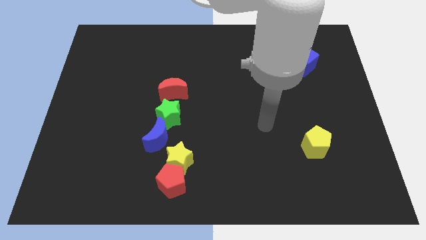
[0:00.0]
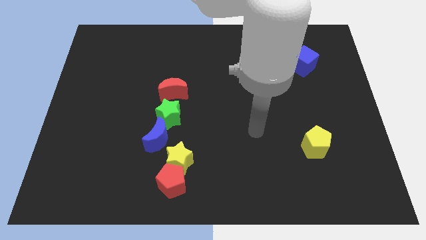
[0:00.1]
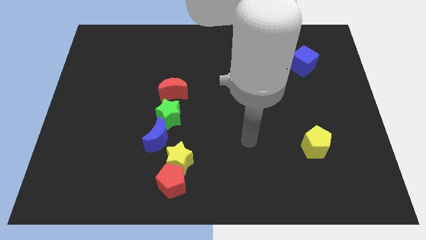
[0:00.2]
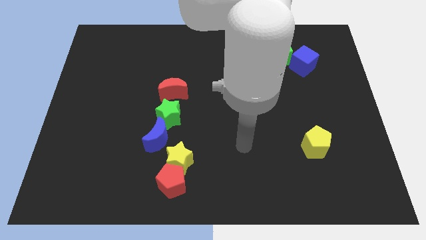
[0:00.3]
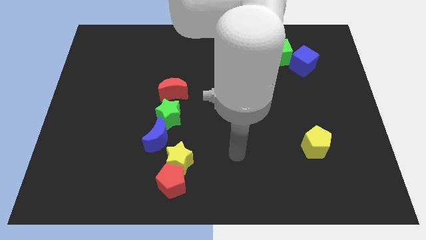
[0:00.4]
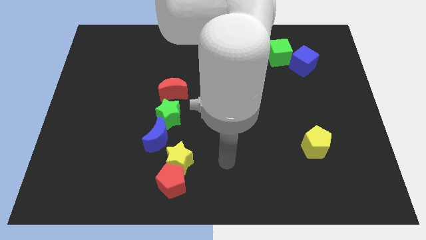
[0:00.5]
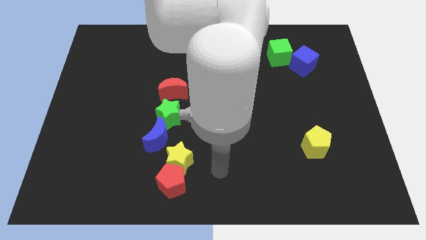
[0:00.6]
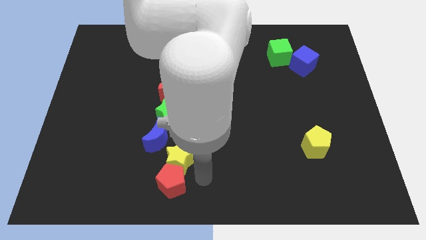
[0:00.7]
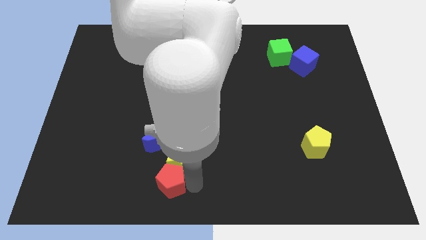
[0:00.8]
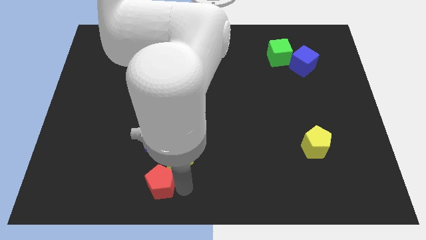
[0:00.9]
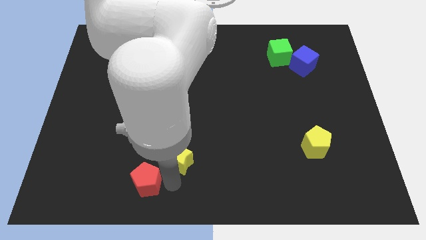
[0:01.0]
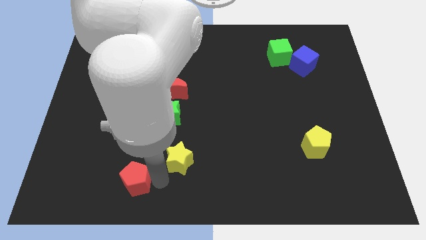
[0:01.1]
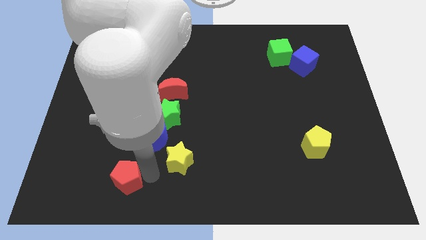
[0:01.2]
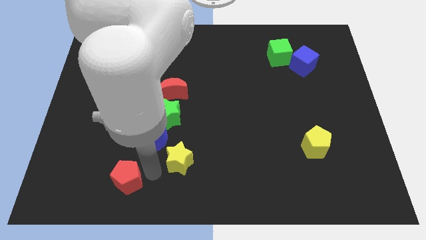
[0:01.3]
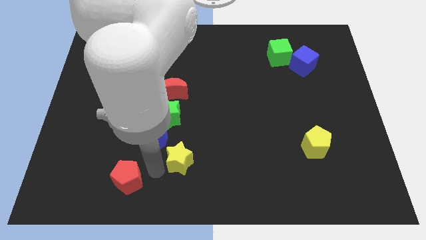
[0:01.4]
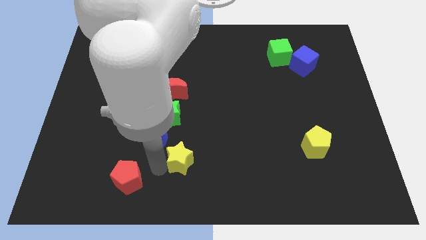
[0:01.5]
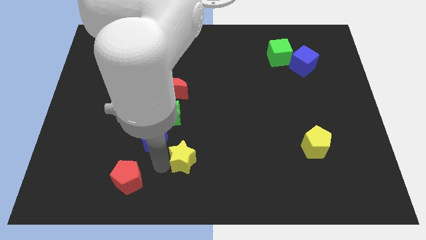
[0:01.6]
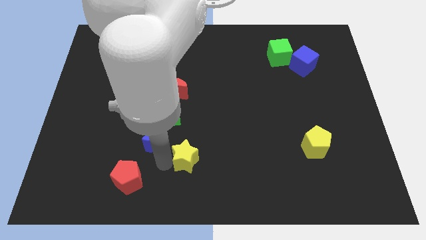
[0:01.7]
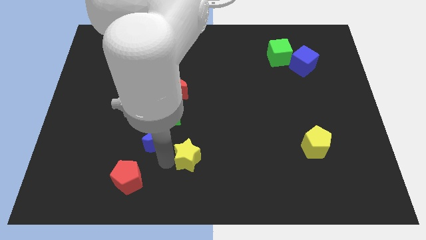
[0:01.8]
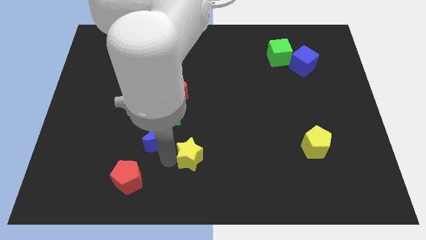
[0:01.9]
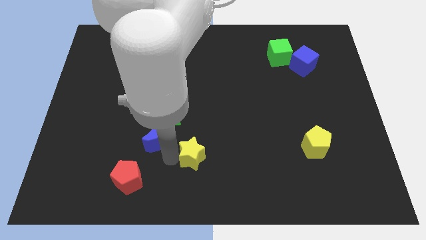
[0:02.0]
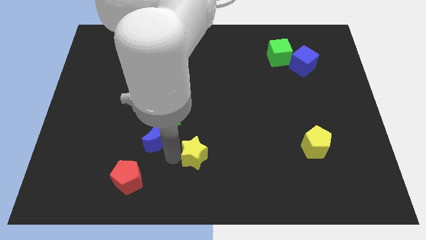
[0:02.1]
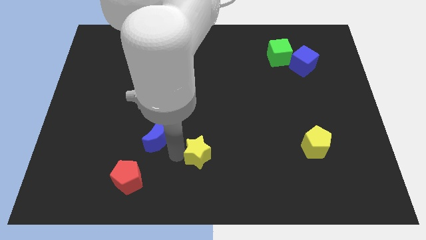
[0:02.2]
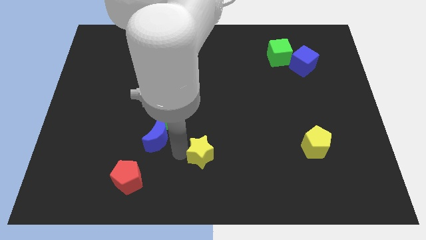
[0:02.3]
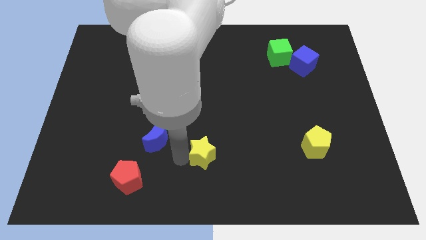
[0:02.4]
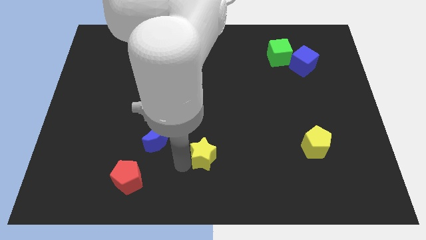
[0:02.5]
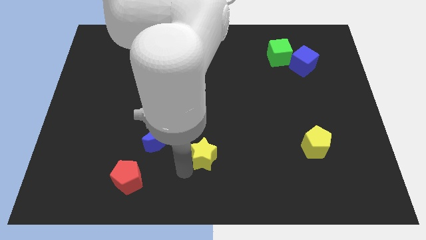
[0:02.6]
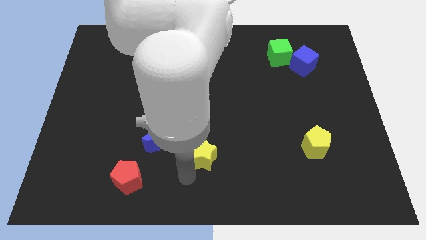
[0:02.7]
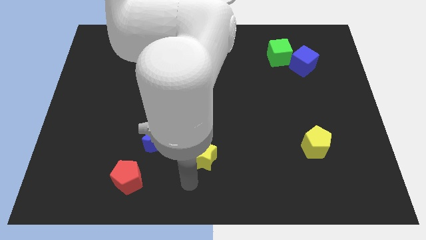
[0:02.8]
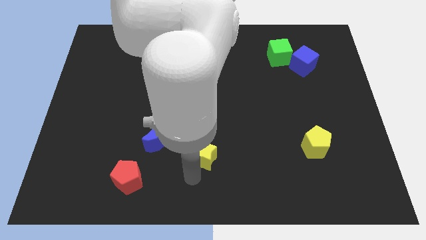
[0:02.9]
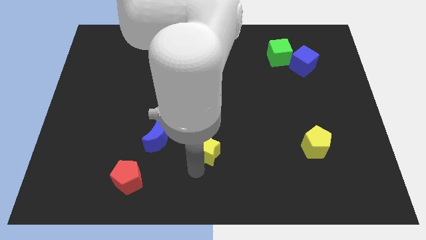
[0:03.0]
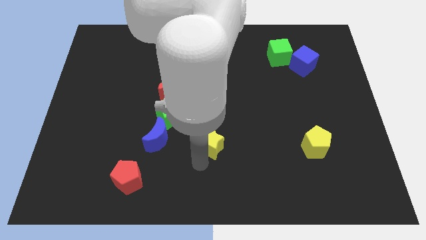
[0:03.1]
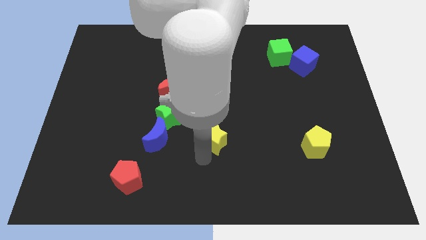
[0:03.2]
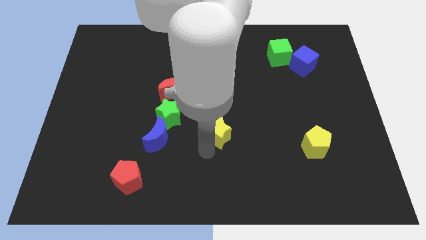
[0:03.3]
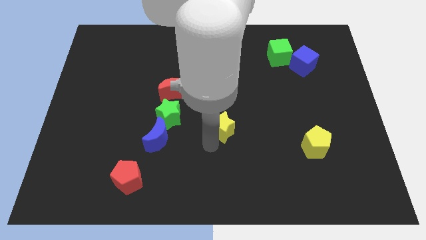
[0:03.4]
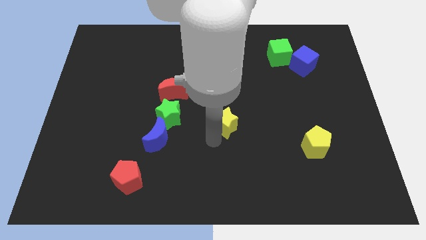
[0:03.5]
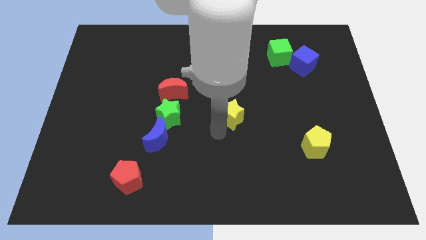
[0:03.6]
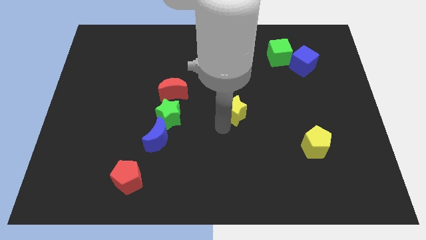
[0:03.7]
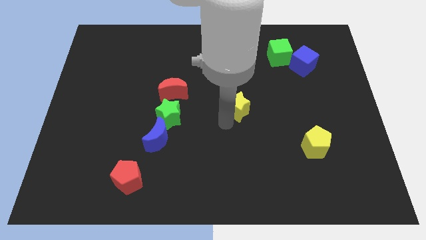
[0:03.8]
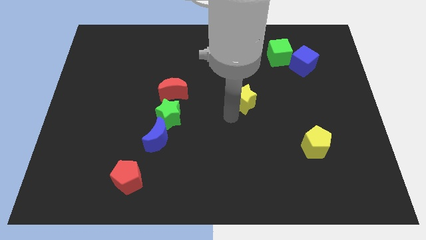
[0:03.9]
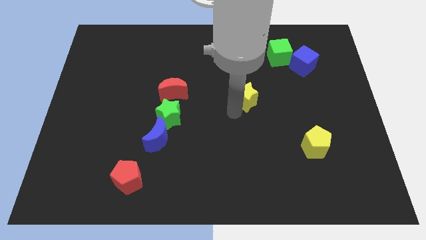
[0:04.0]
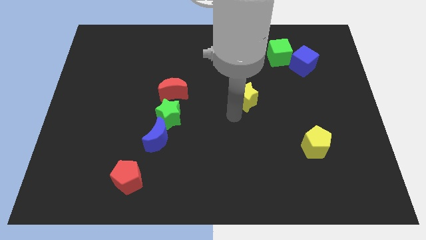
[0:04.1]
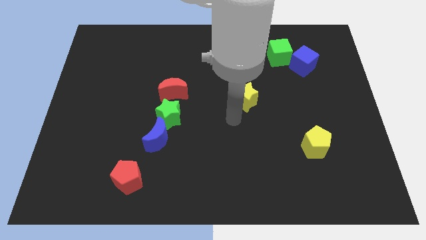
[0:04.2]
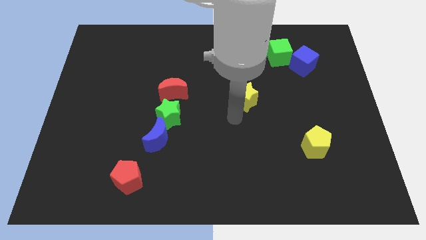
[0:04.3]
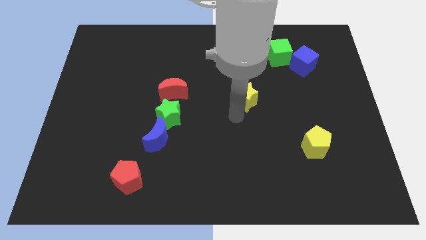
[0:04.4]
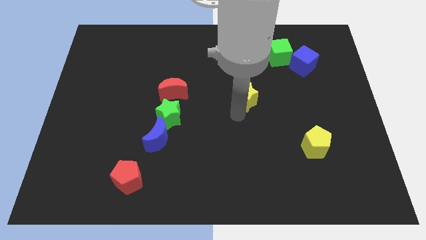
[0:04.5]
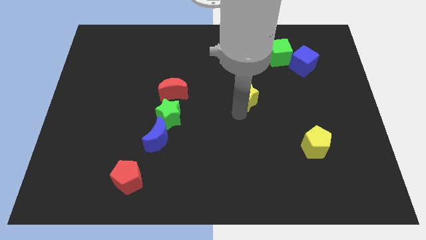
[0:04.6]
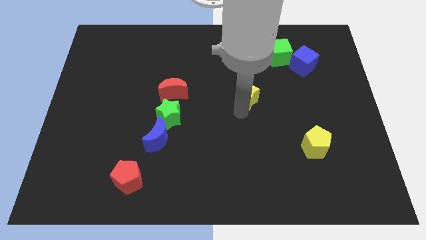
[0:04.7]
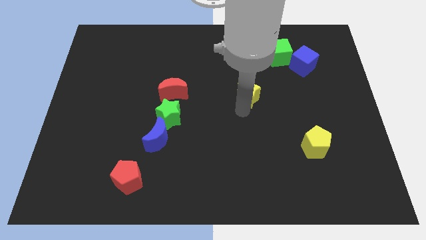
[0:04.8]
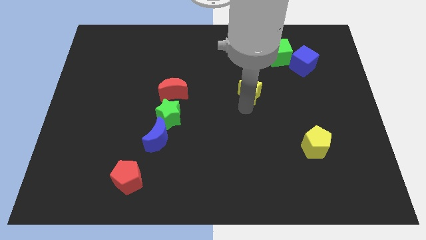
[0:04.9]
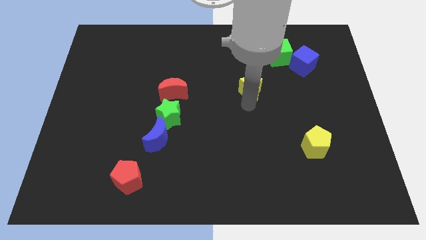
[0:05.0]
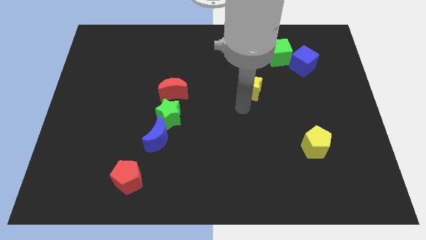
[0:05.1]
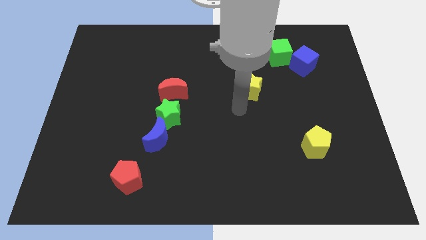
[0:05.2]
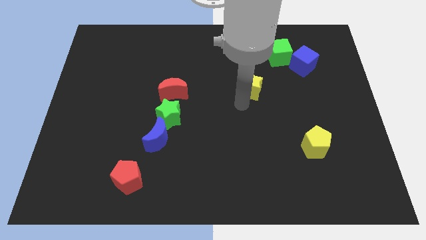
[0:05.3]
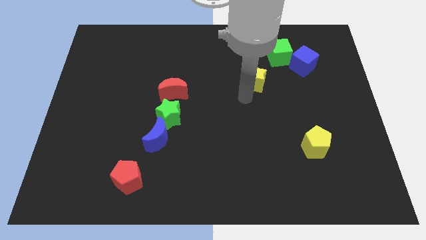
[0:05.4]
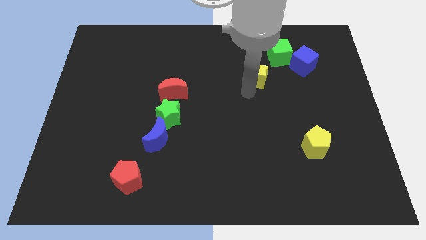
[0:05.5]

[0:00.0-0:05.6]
move the yellow star left of the blue cube
